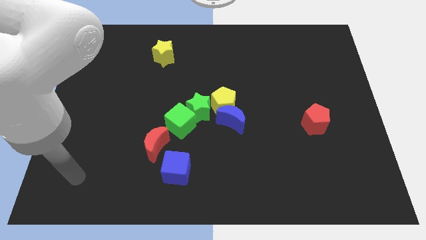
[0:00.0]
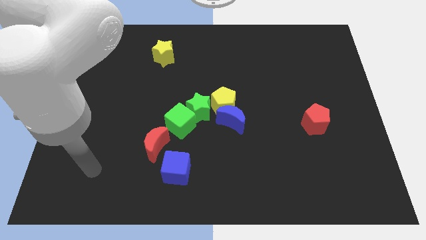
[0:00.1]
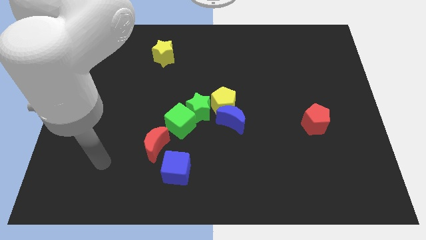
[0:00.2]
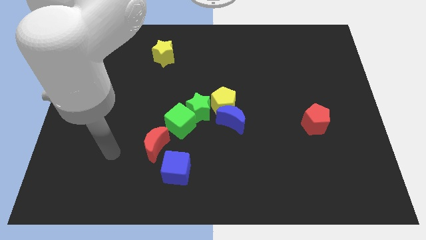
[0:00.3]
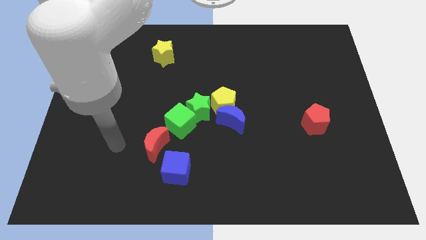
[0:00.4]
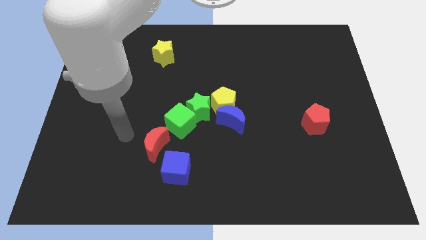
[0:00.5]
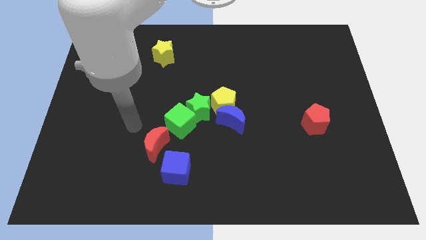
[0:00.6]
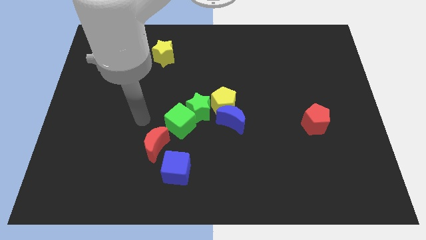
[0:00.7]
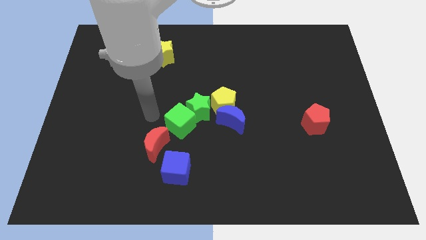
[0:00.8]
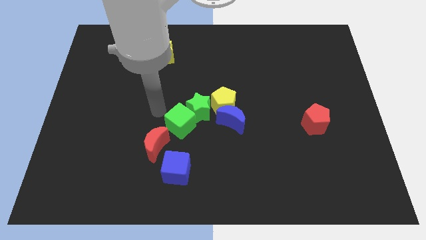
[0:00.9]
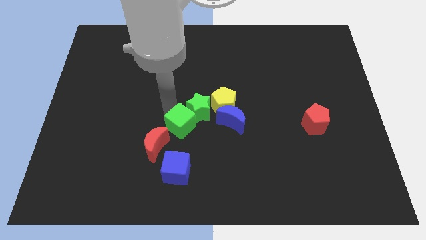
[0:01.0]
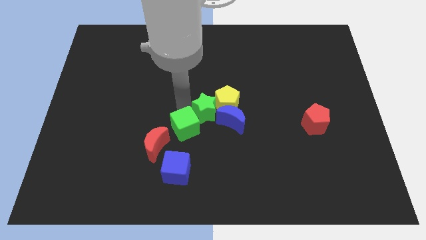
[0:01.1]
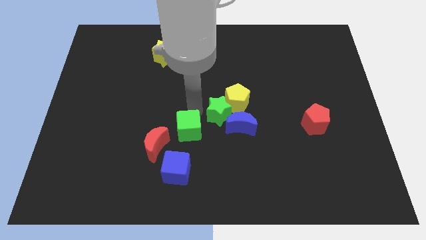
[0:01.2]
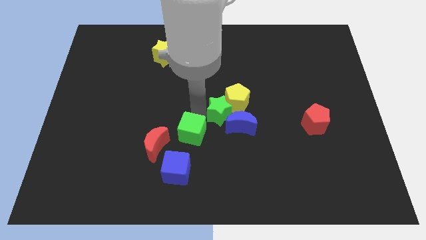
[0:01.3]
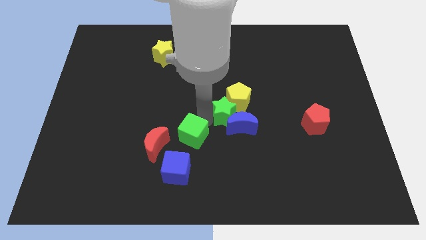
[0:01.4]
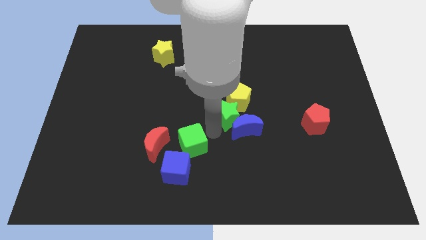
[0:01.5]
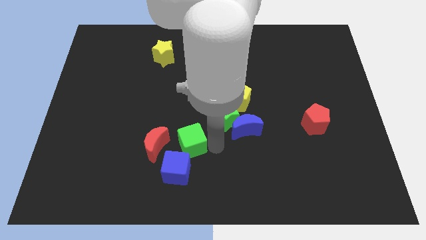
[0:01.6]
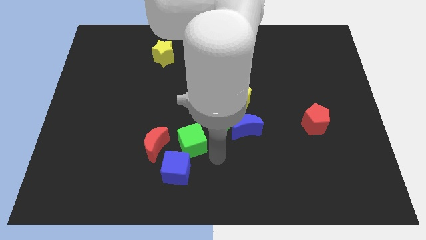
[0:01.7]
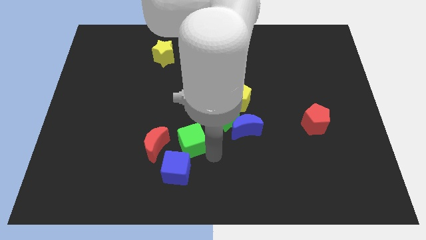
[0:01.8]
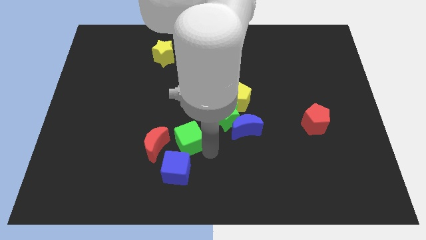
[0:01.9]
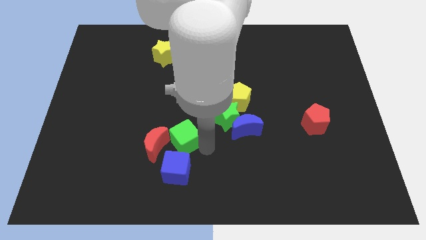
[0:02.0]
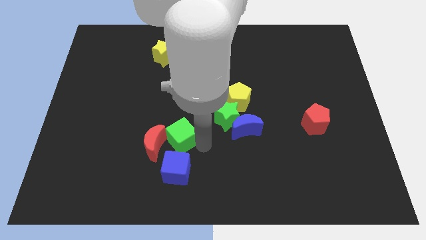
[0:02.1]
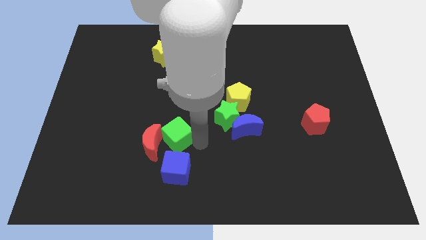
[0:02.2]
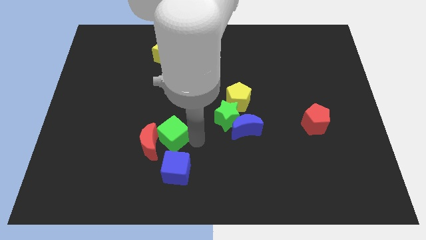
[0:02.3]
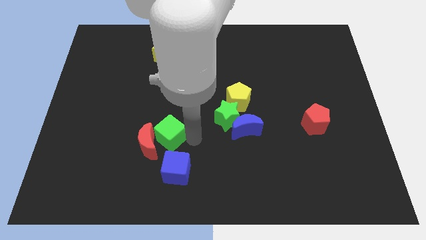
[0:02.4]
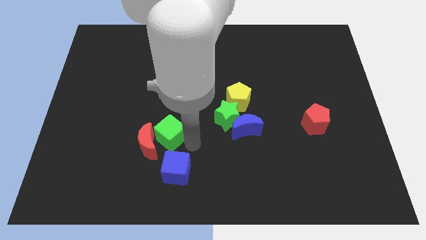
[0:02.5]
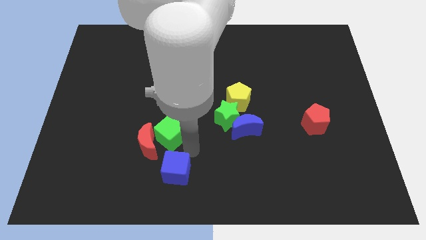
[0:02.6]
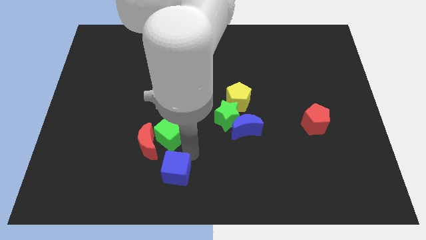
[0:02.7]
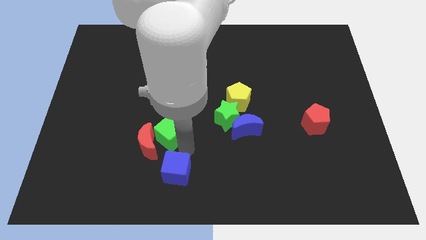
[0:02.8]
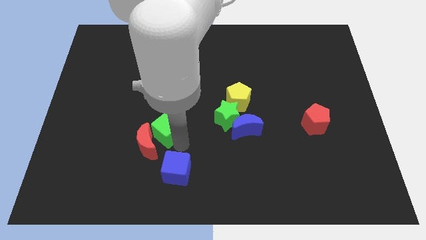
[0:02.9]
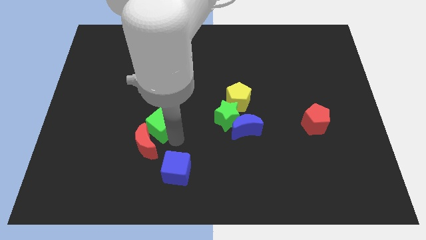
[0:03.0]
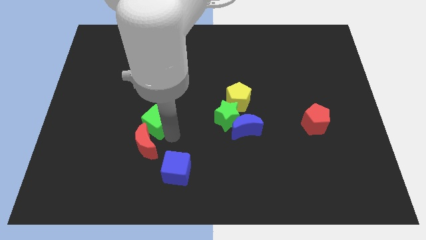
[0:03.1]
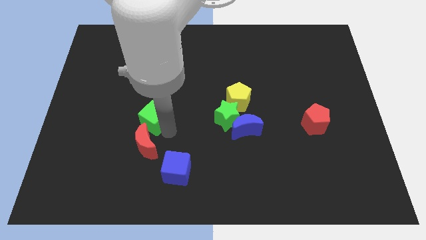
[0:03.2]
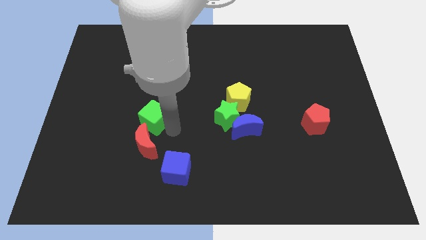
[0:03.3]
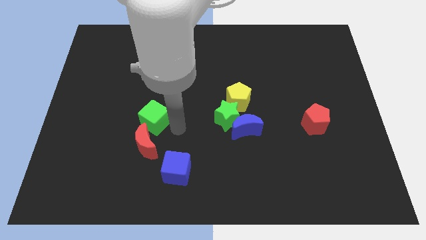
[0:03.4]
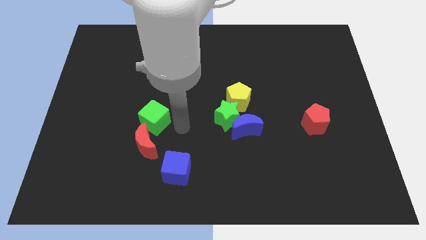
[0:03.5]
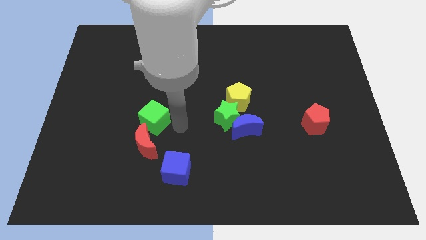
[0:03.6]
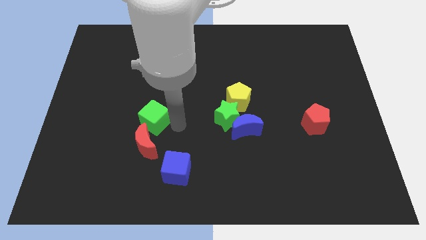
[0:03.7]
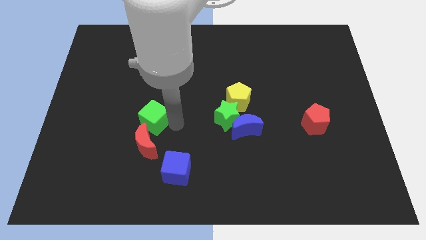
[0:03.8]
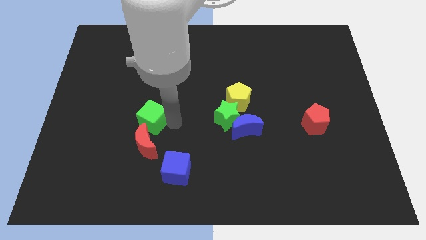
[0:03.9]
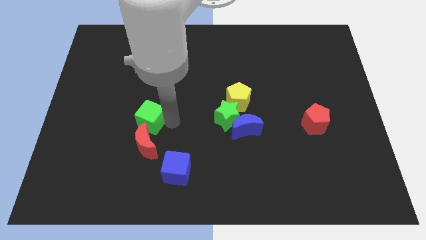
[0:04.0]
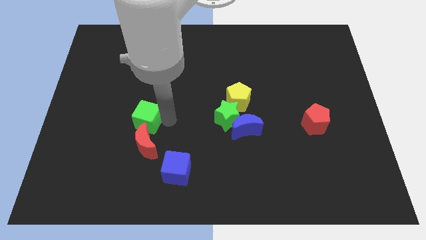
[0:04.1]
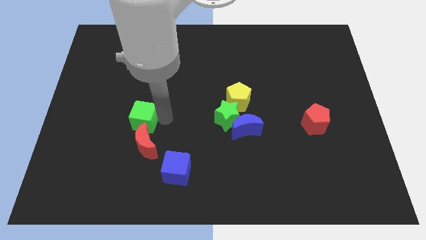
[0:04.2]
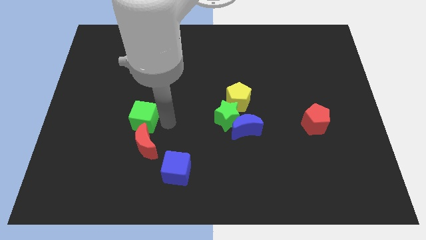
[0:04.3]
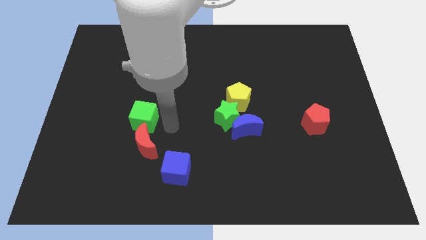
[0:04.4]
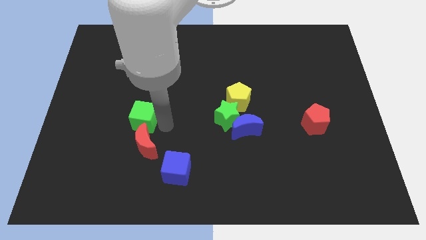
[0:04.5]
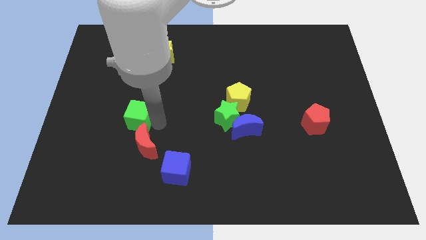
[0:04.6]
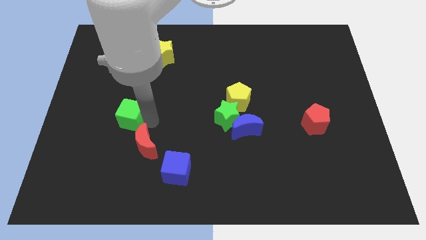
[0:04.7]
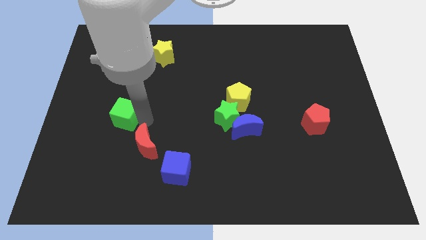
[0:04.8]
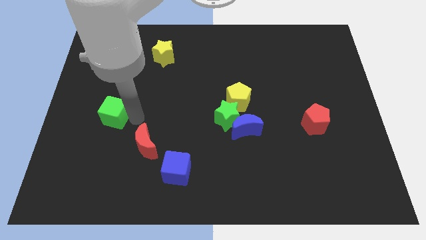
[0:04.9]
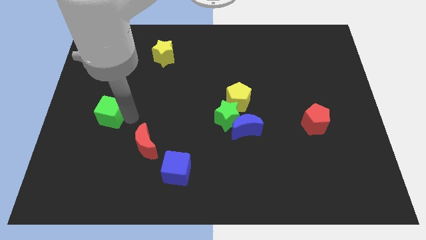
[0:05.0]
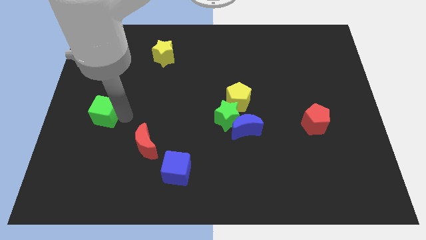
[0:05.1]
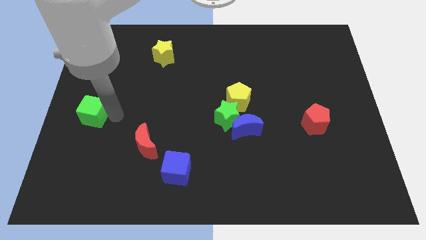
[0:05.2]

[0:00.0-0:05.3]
push the green cube to the center left

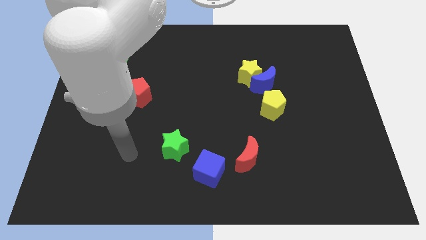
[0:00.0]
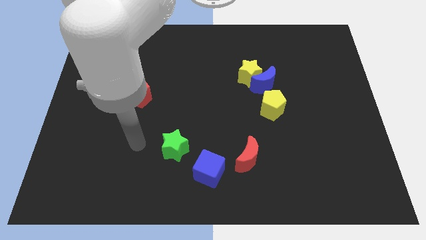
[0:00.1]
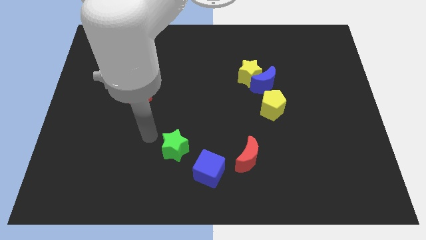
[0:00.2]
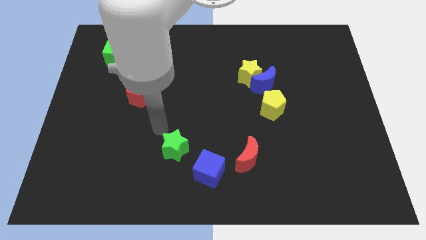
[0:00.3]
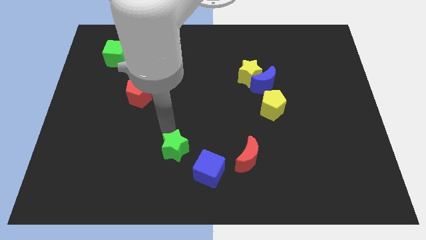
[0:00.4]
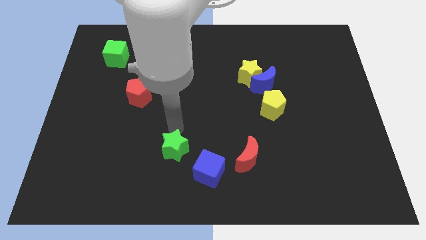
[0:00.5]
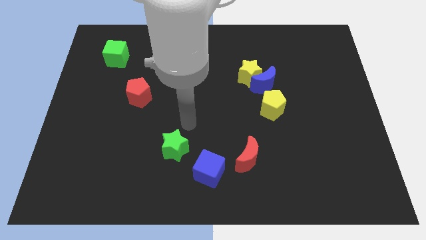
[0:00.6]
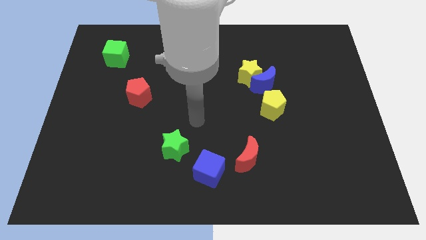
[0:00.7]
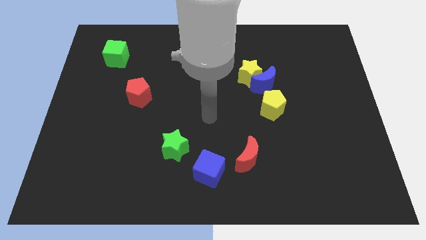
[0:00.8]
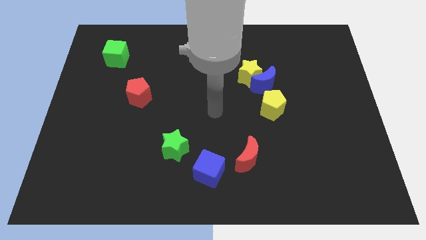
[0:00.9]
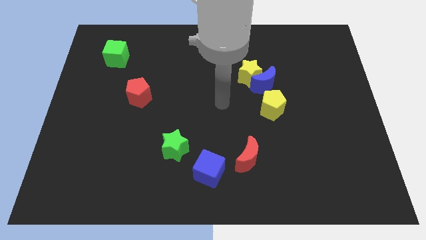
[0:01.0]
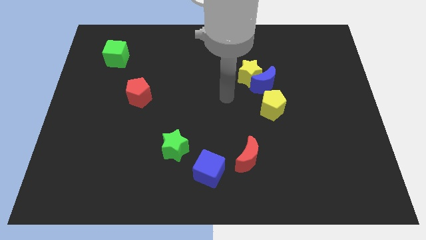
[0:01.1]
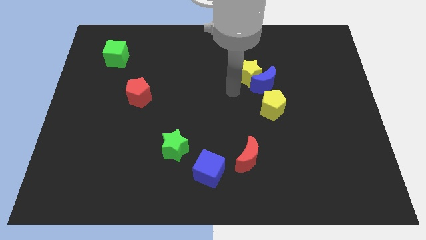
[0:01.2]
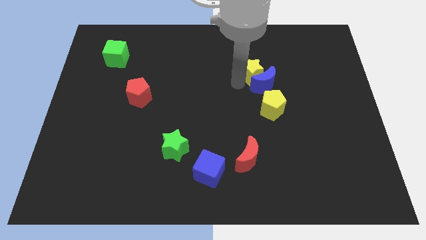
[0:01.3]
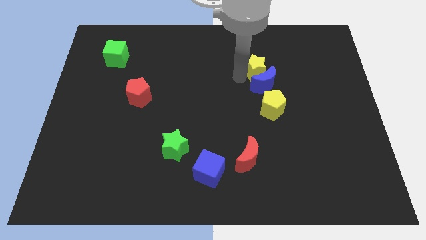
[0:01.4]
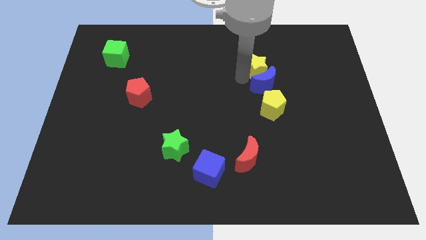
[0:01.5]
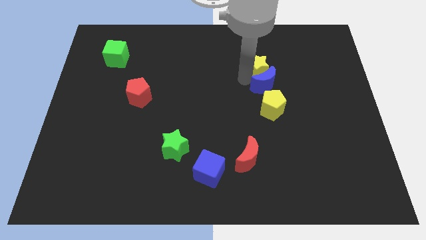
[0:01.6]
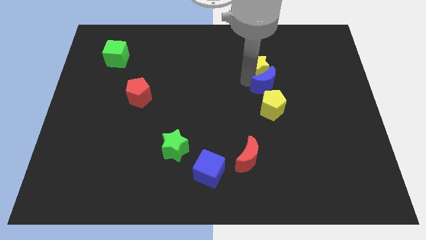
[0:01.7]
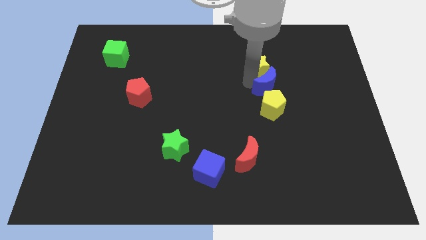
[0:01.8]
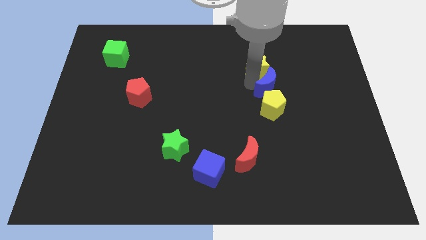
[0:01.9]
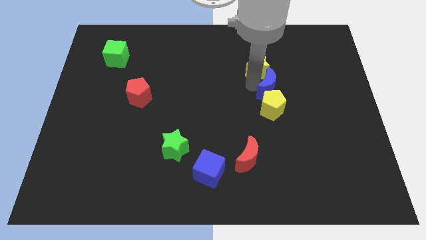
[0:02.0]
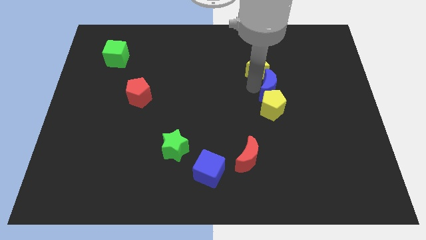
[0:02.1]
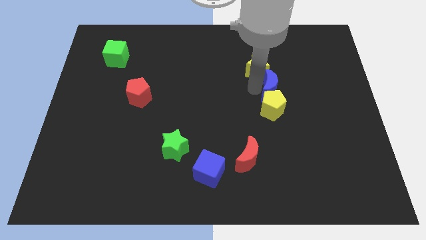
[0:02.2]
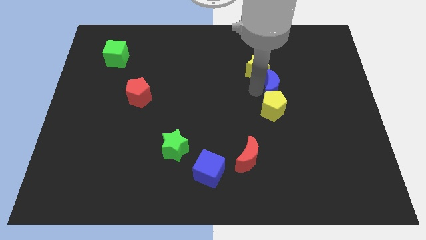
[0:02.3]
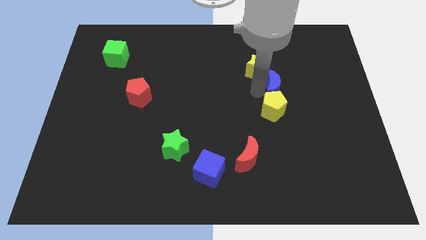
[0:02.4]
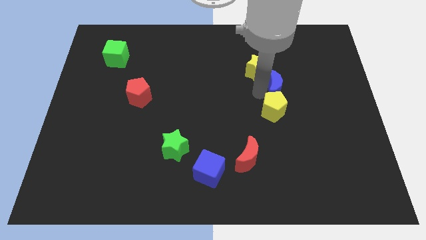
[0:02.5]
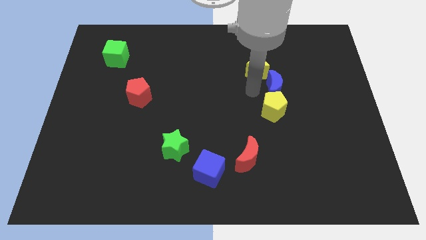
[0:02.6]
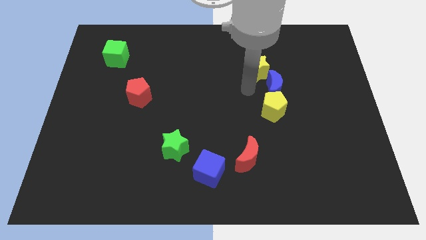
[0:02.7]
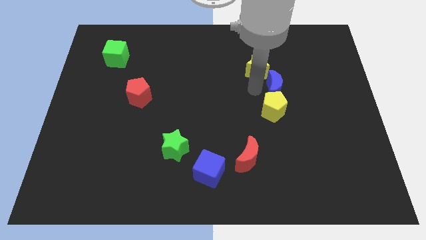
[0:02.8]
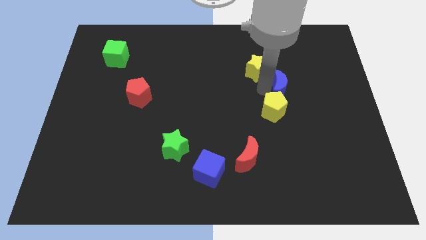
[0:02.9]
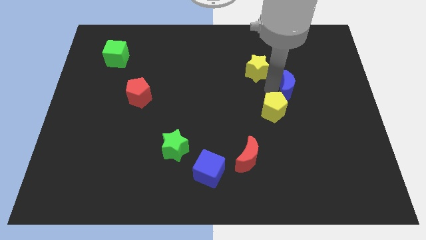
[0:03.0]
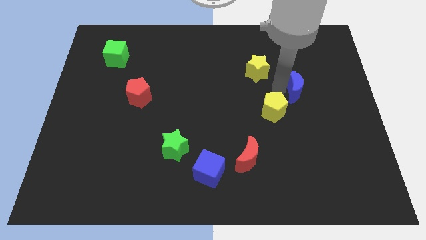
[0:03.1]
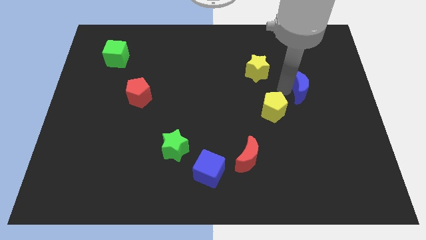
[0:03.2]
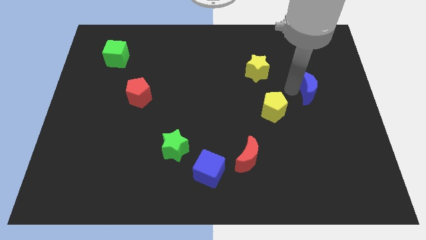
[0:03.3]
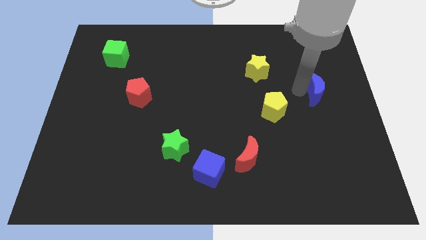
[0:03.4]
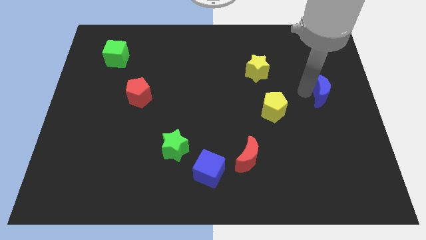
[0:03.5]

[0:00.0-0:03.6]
move the blue moon to the center right
